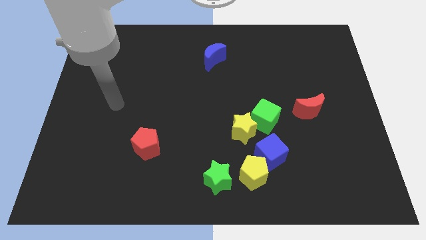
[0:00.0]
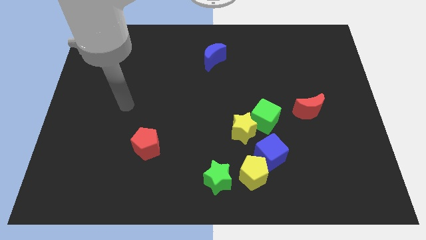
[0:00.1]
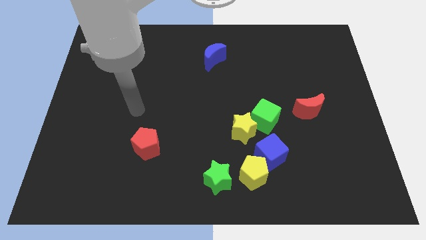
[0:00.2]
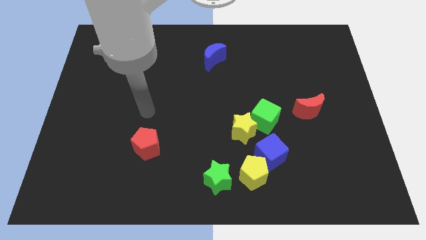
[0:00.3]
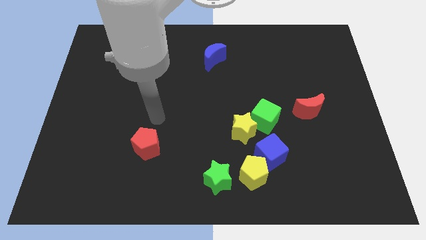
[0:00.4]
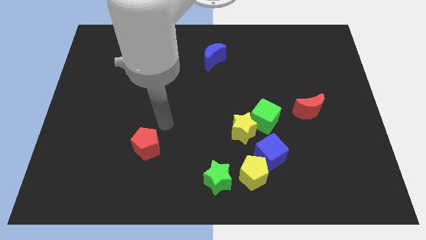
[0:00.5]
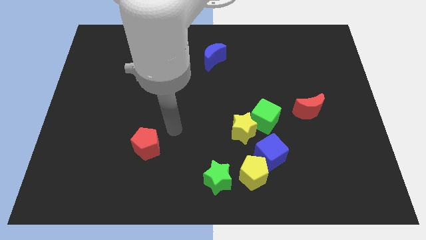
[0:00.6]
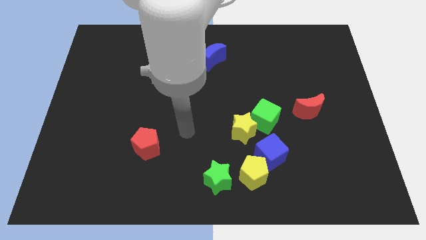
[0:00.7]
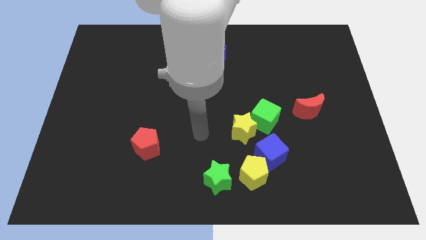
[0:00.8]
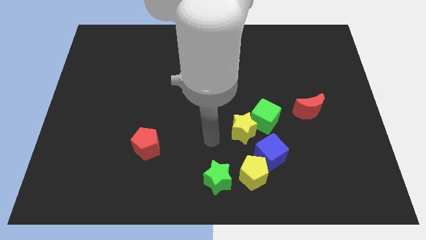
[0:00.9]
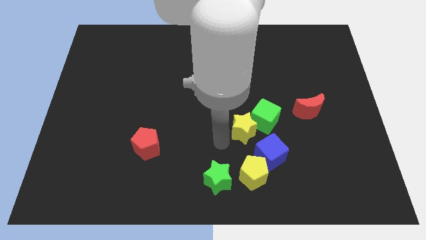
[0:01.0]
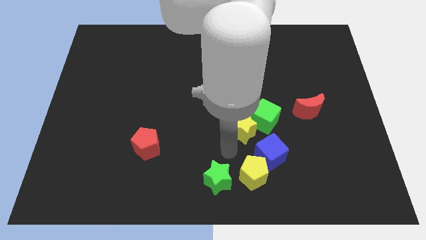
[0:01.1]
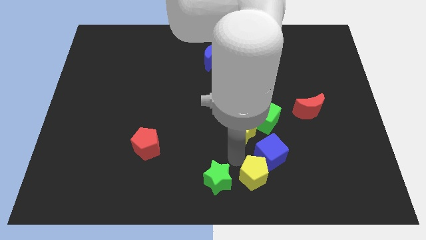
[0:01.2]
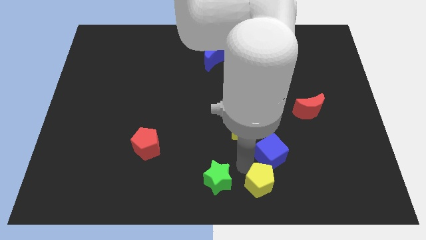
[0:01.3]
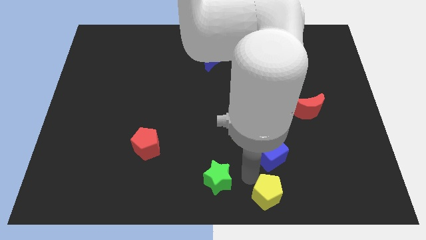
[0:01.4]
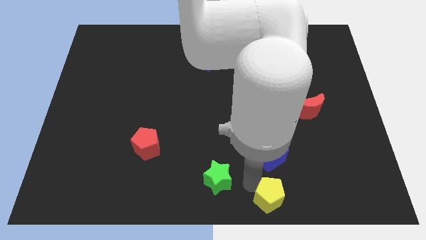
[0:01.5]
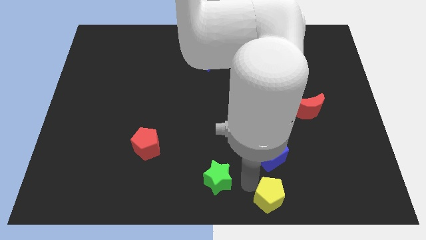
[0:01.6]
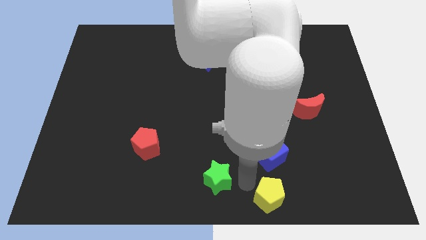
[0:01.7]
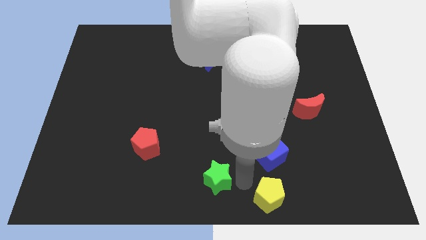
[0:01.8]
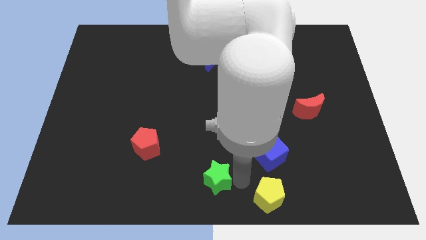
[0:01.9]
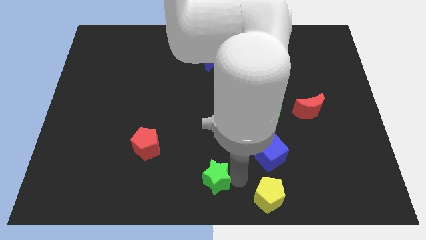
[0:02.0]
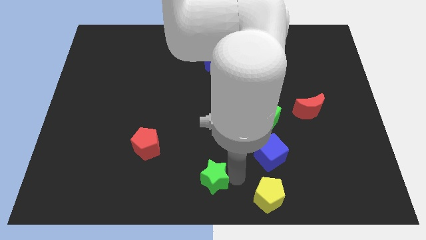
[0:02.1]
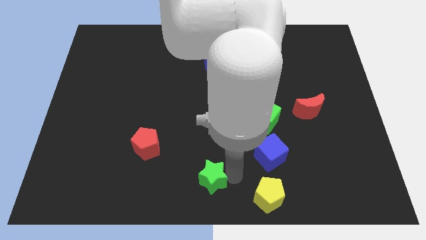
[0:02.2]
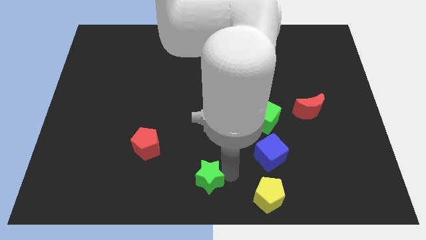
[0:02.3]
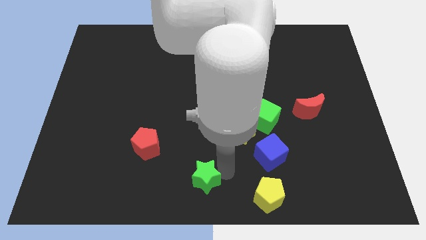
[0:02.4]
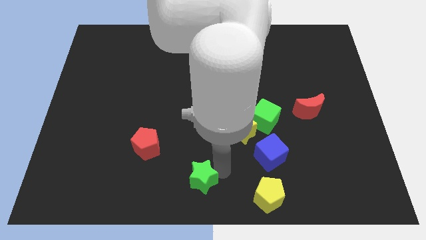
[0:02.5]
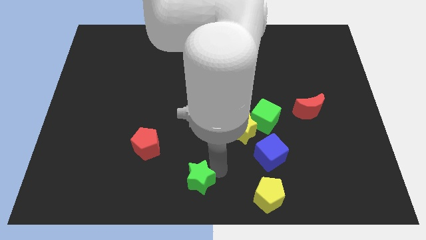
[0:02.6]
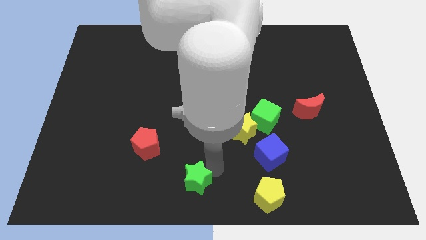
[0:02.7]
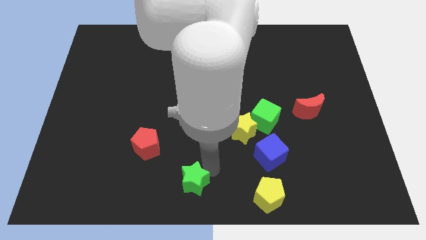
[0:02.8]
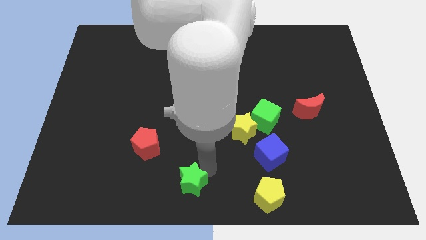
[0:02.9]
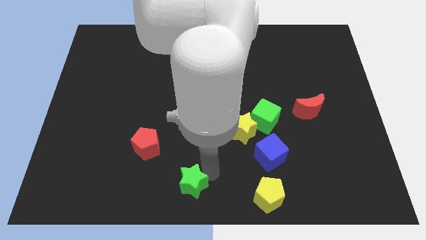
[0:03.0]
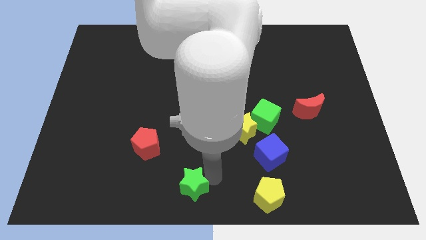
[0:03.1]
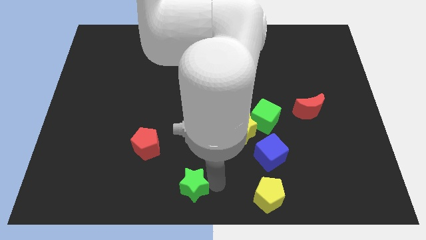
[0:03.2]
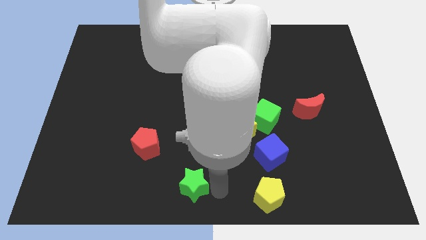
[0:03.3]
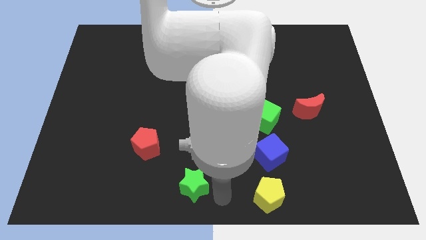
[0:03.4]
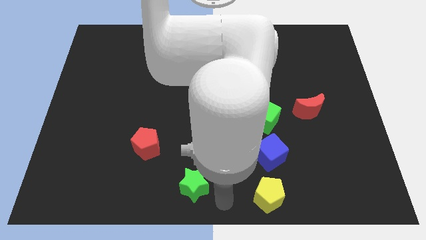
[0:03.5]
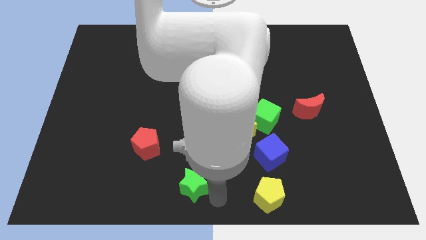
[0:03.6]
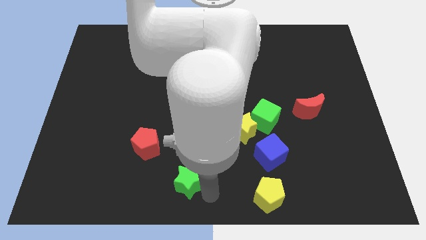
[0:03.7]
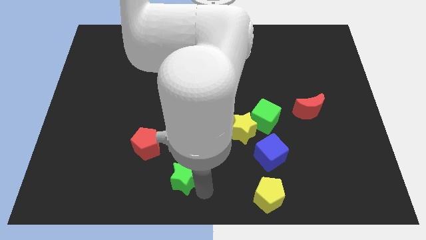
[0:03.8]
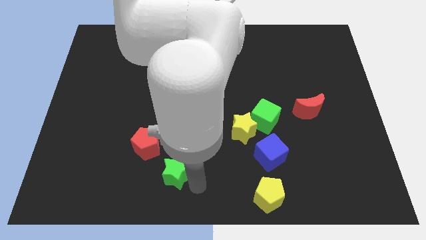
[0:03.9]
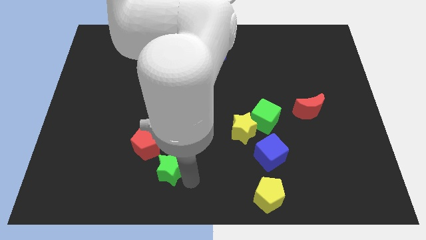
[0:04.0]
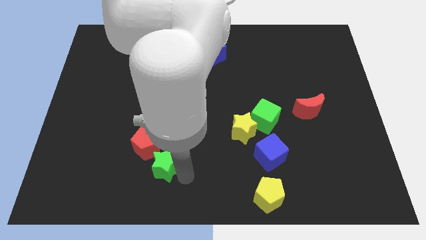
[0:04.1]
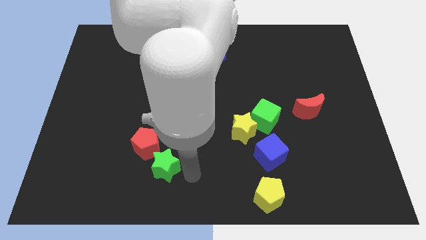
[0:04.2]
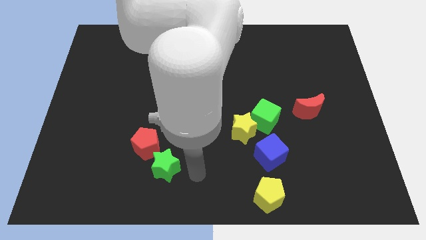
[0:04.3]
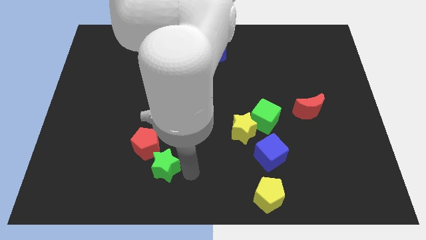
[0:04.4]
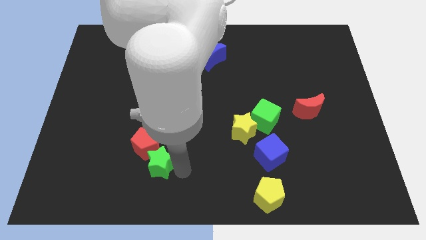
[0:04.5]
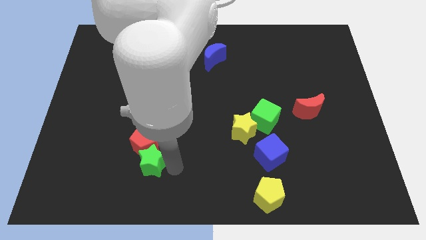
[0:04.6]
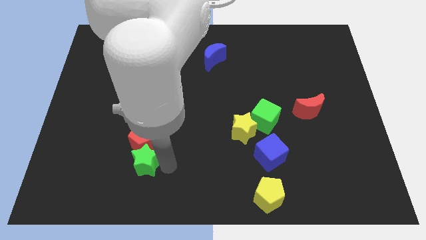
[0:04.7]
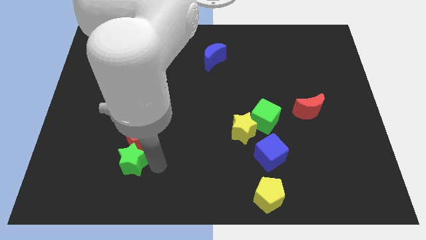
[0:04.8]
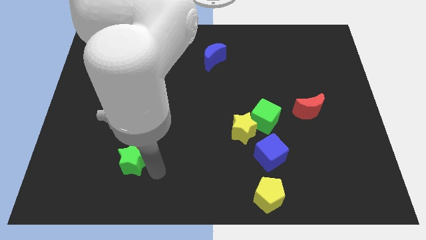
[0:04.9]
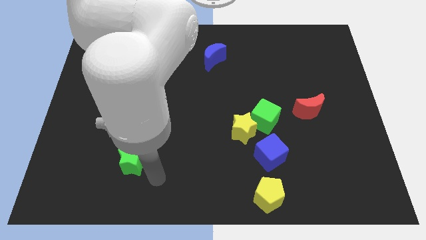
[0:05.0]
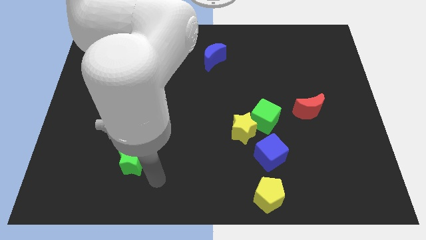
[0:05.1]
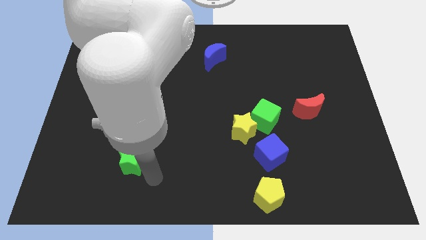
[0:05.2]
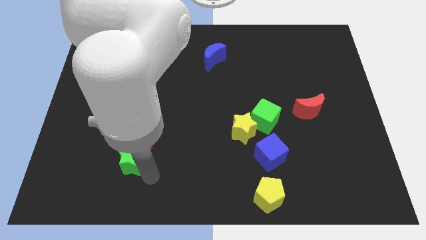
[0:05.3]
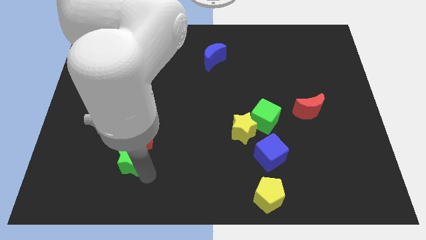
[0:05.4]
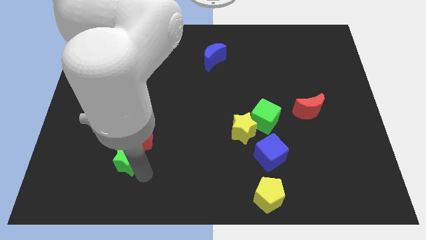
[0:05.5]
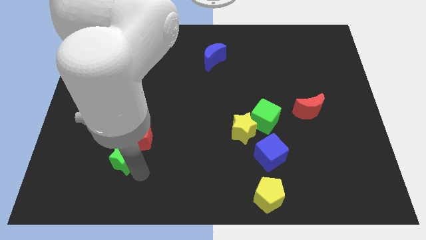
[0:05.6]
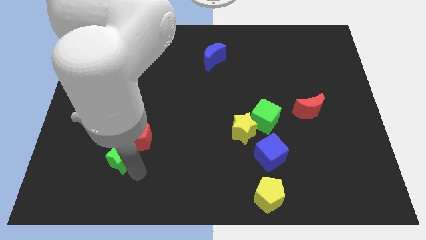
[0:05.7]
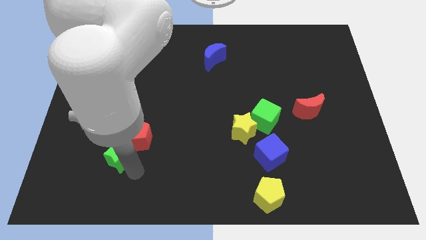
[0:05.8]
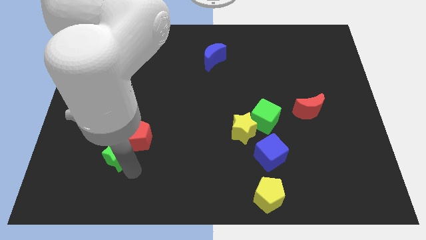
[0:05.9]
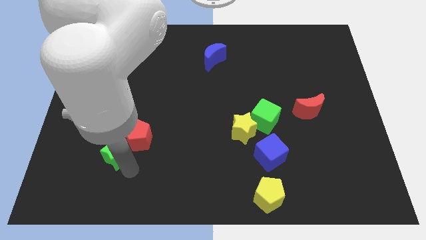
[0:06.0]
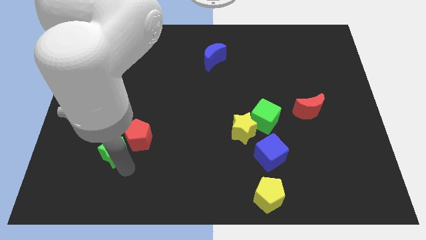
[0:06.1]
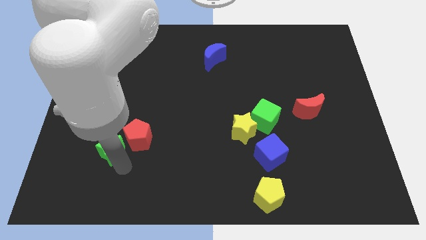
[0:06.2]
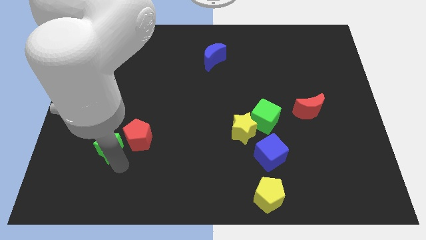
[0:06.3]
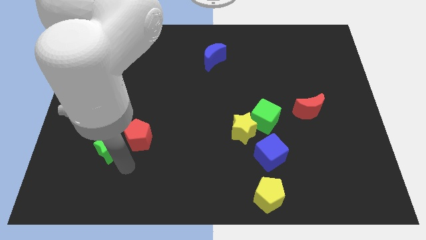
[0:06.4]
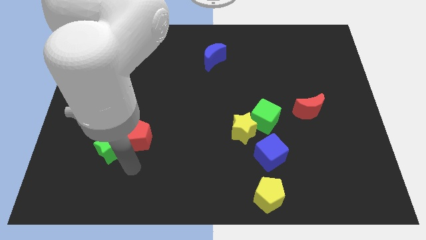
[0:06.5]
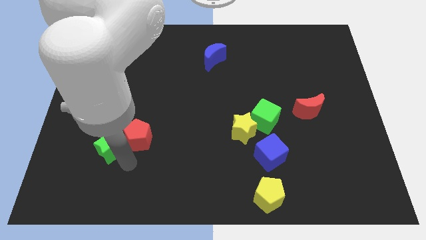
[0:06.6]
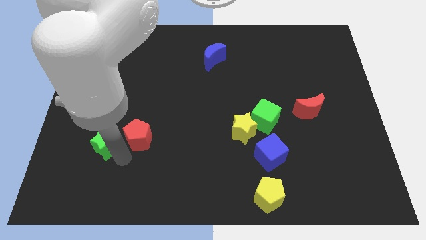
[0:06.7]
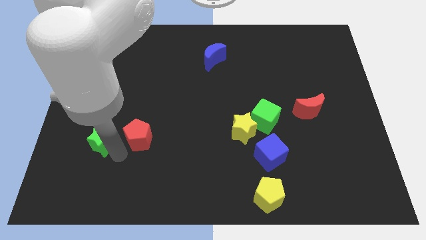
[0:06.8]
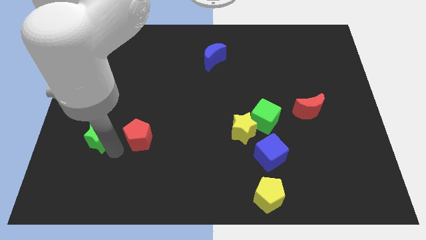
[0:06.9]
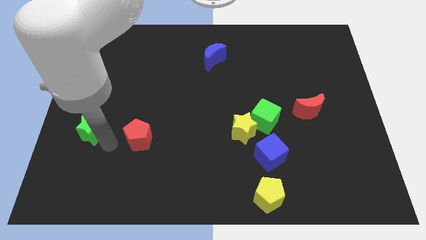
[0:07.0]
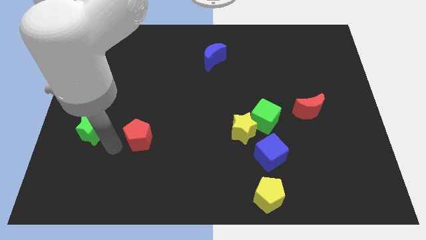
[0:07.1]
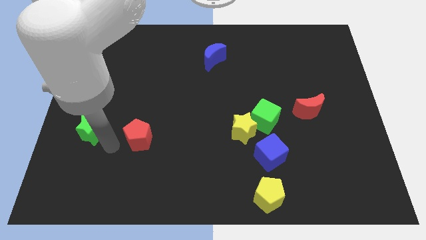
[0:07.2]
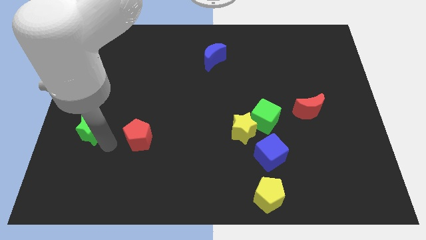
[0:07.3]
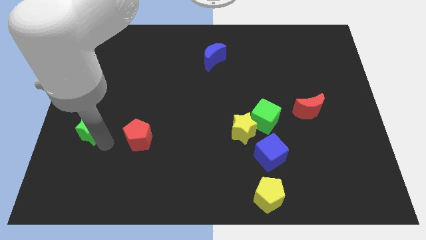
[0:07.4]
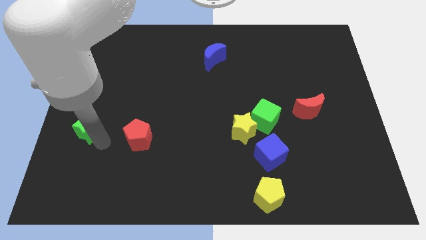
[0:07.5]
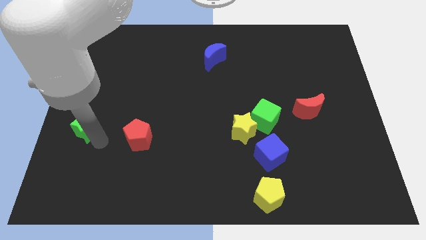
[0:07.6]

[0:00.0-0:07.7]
slide the green star to the left side

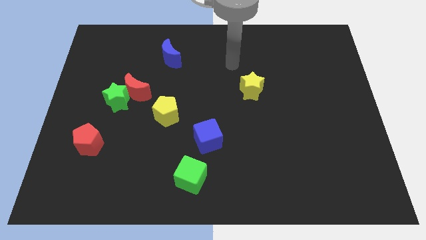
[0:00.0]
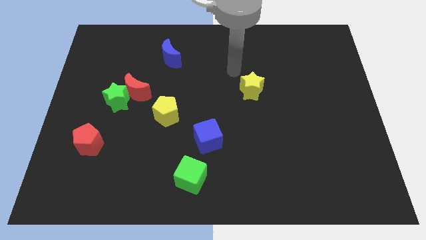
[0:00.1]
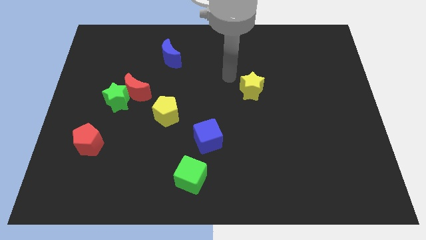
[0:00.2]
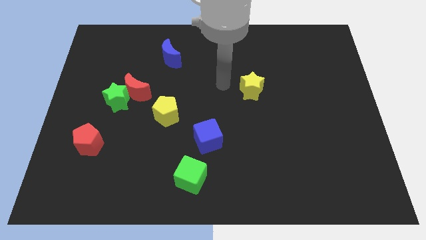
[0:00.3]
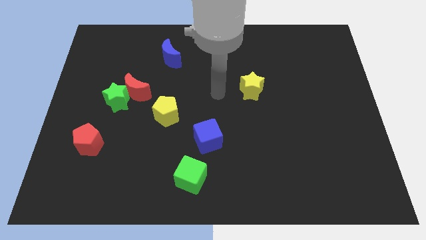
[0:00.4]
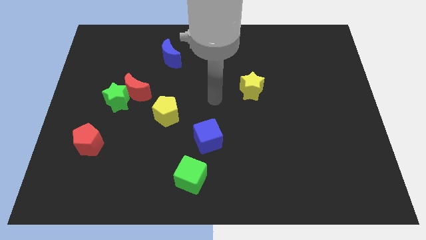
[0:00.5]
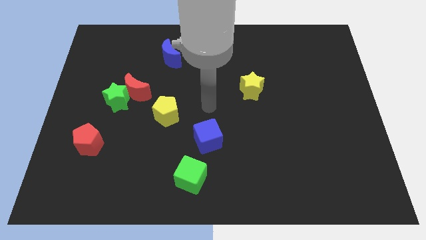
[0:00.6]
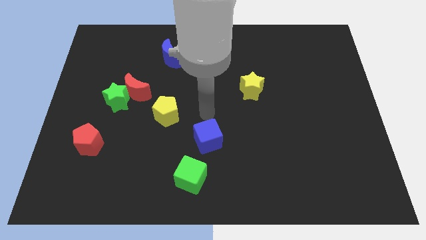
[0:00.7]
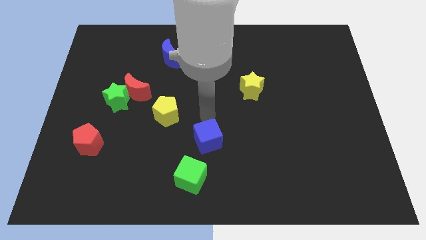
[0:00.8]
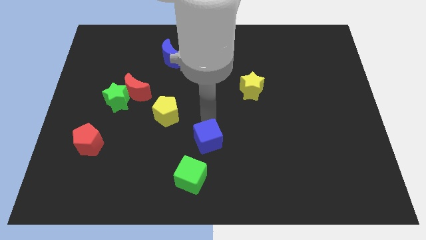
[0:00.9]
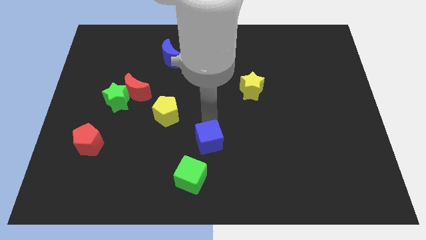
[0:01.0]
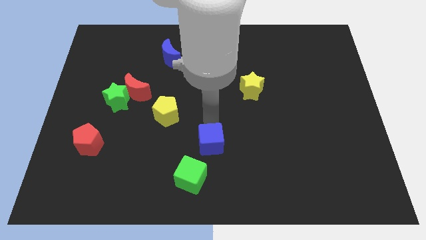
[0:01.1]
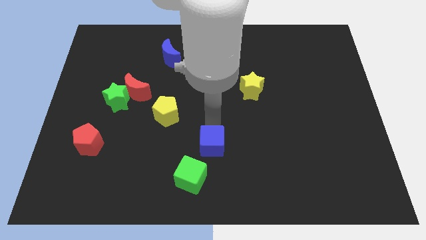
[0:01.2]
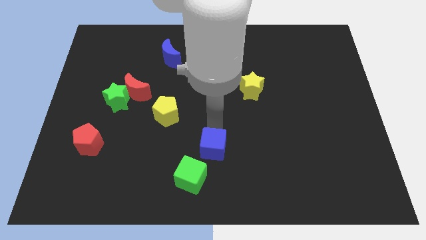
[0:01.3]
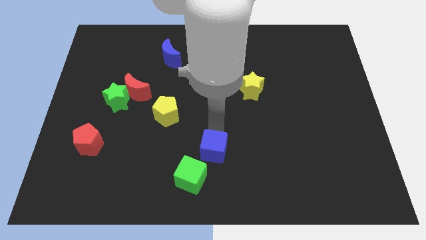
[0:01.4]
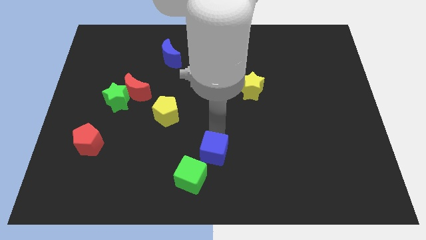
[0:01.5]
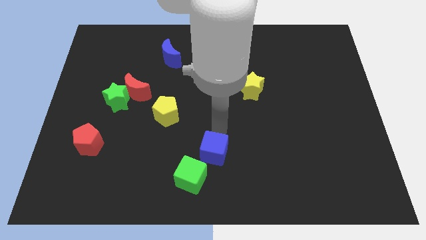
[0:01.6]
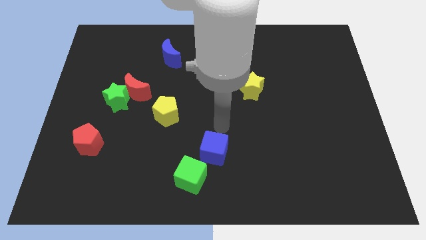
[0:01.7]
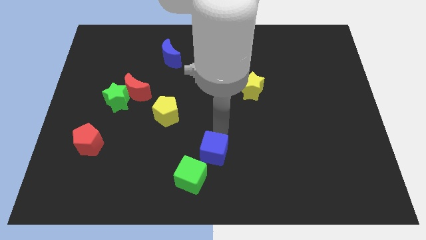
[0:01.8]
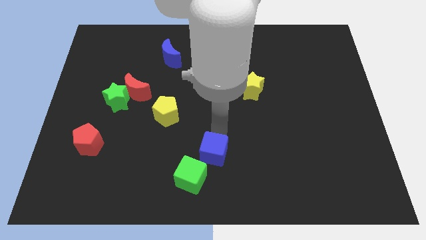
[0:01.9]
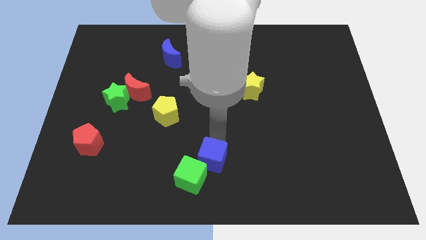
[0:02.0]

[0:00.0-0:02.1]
move the blue cube to the bottom
